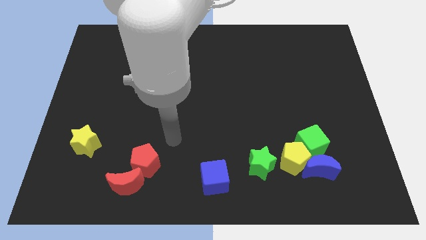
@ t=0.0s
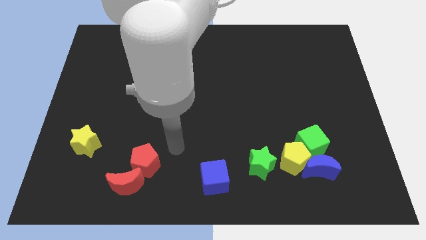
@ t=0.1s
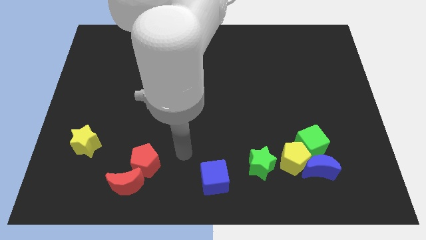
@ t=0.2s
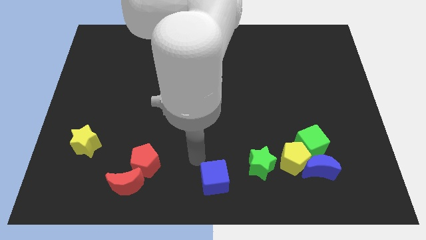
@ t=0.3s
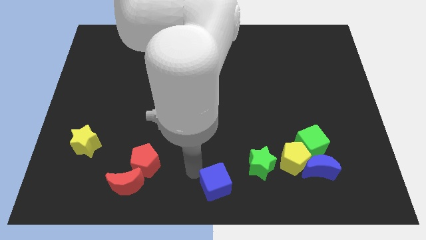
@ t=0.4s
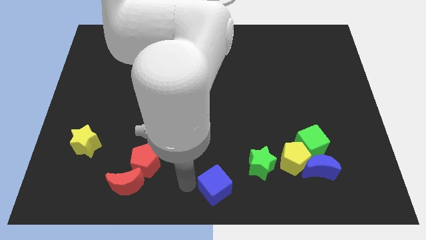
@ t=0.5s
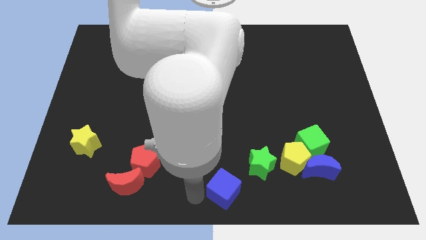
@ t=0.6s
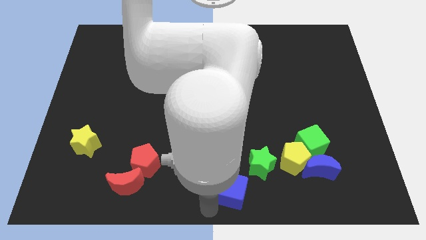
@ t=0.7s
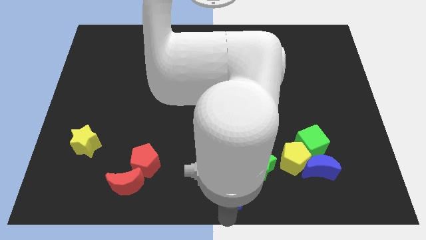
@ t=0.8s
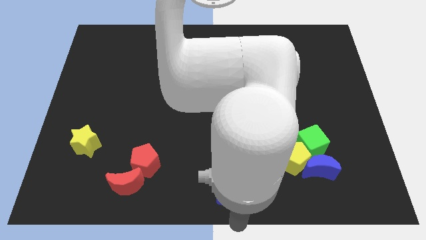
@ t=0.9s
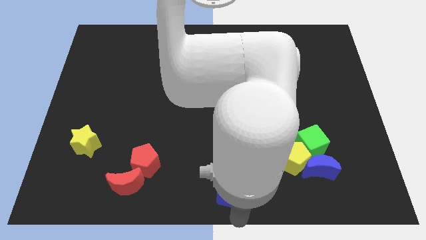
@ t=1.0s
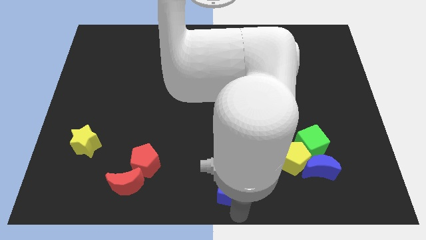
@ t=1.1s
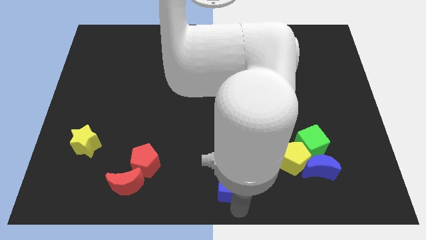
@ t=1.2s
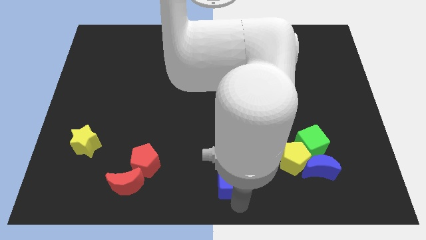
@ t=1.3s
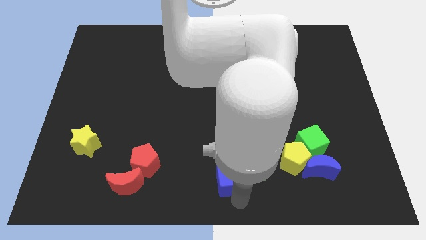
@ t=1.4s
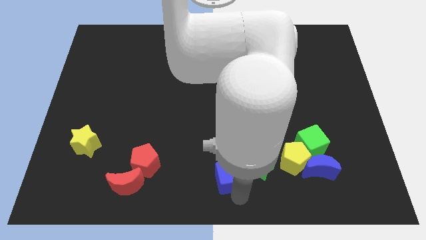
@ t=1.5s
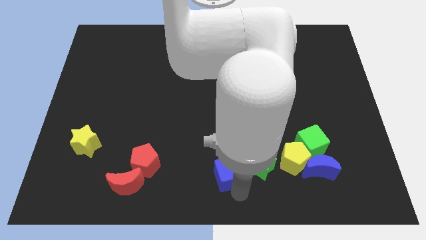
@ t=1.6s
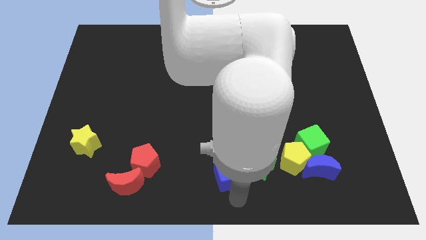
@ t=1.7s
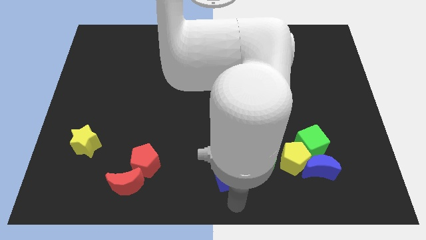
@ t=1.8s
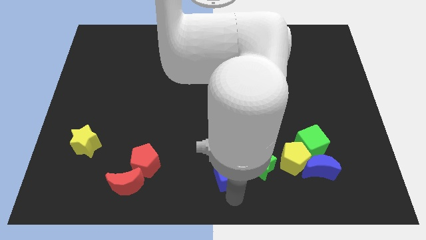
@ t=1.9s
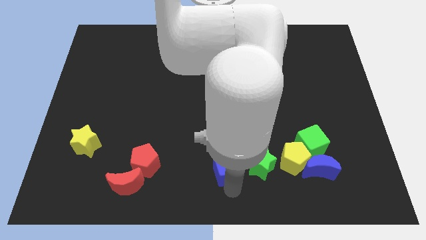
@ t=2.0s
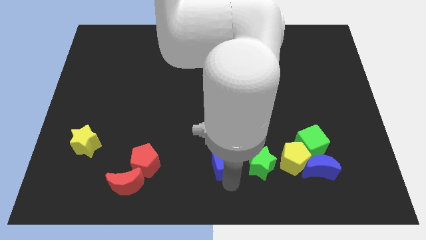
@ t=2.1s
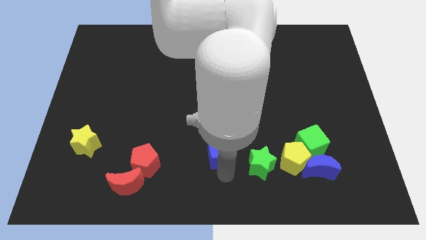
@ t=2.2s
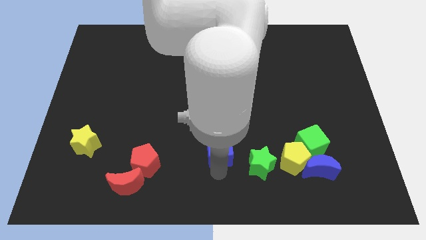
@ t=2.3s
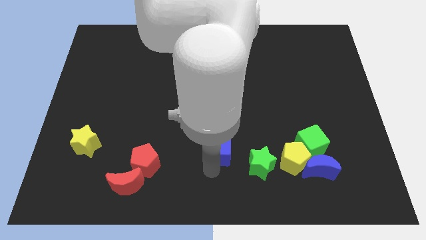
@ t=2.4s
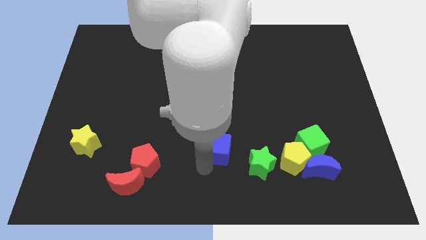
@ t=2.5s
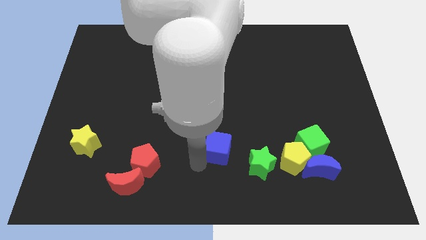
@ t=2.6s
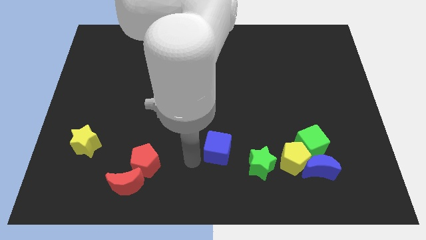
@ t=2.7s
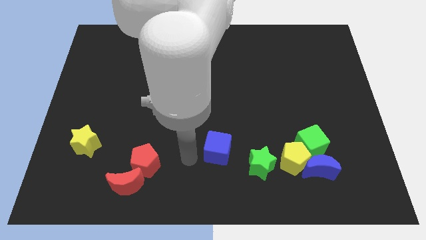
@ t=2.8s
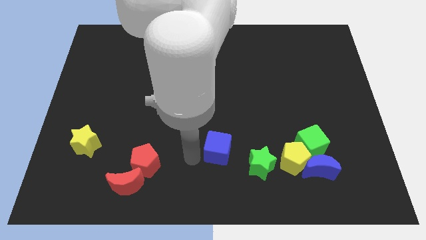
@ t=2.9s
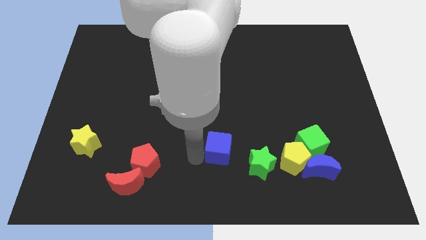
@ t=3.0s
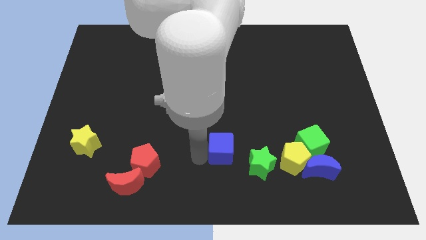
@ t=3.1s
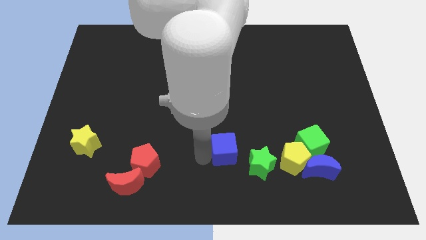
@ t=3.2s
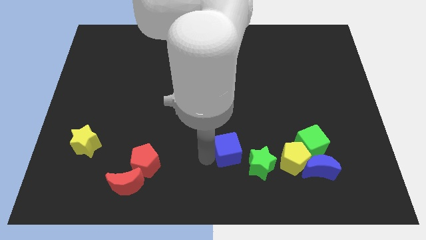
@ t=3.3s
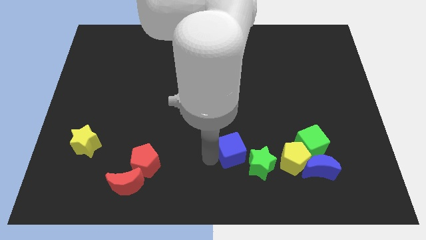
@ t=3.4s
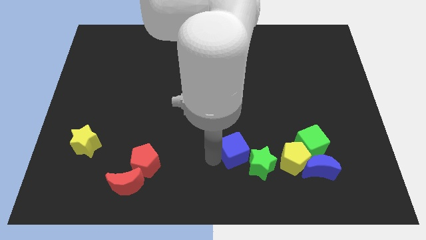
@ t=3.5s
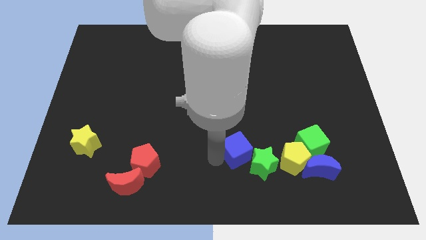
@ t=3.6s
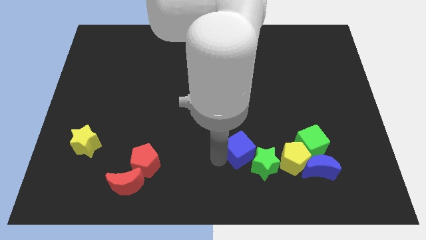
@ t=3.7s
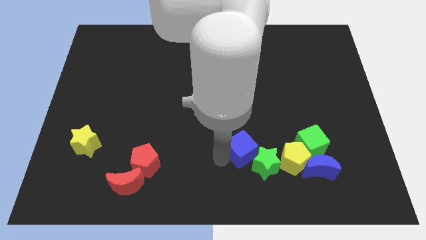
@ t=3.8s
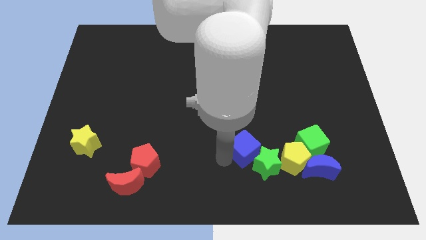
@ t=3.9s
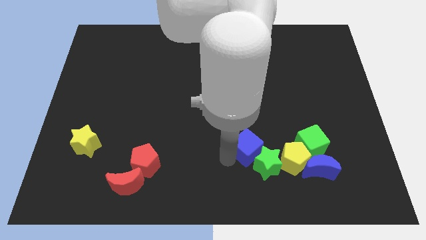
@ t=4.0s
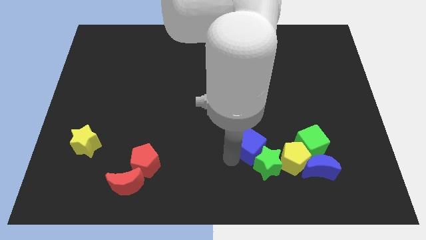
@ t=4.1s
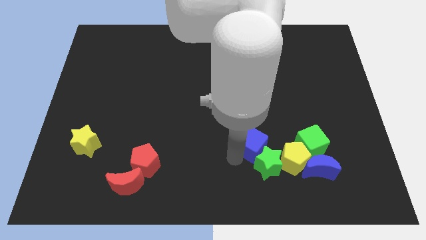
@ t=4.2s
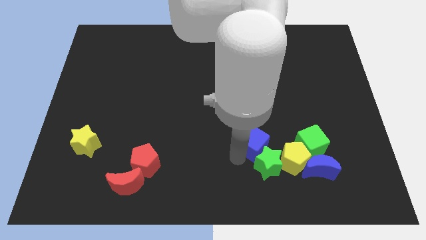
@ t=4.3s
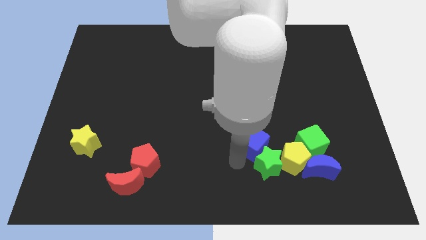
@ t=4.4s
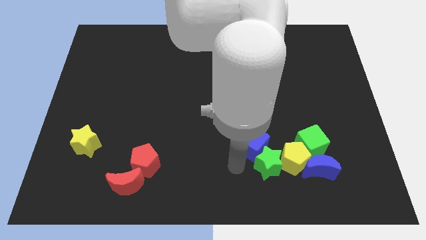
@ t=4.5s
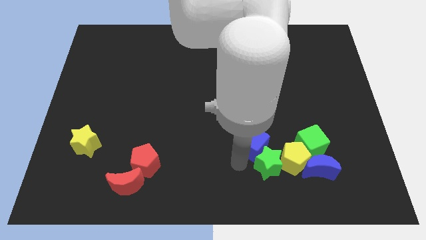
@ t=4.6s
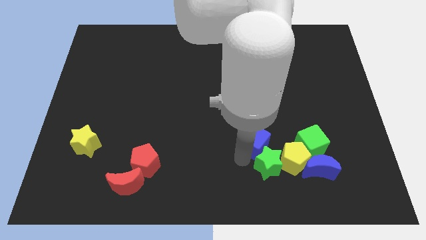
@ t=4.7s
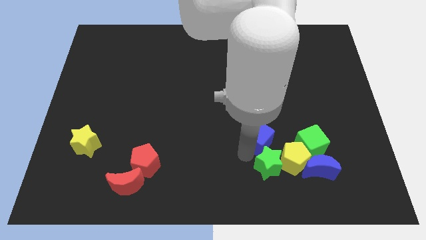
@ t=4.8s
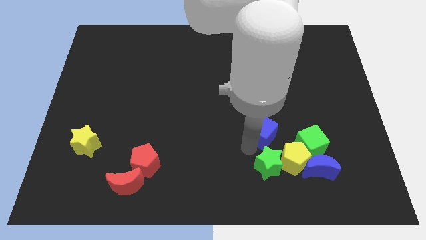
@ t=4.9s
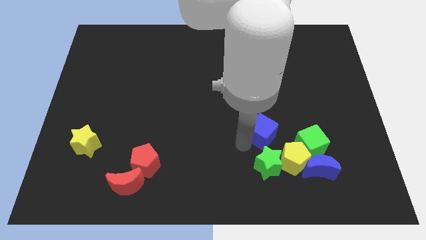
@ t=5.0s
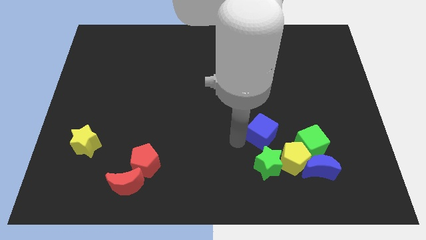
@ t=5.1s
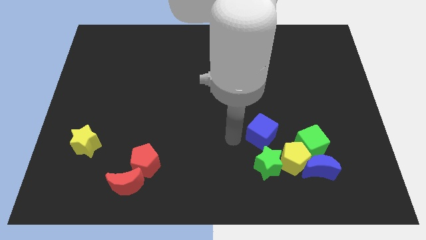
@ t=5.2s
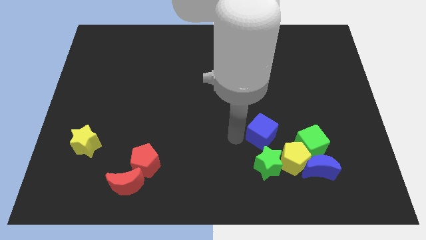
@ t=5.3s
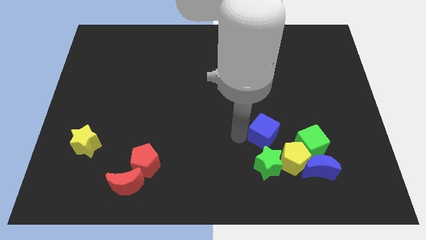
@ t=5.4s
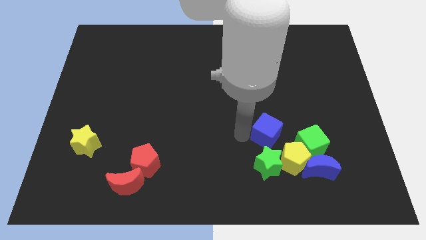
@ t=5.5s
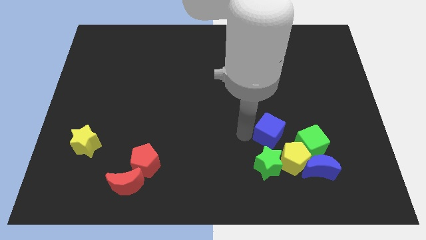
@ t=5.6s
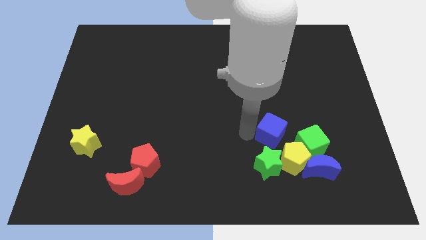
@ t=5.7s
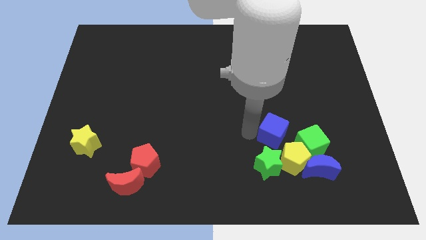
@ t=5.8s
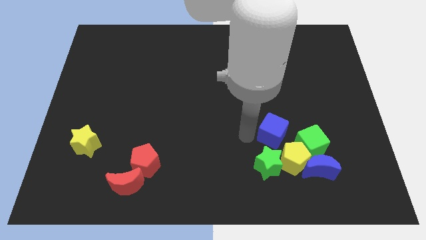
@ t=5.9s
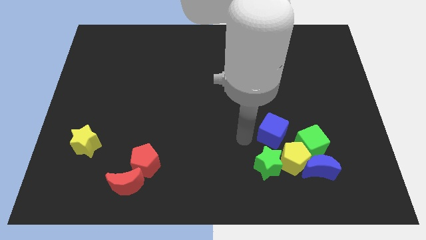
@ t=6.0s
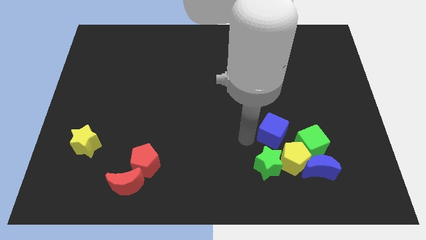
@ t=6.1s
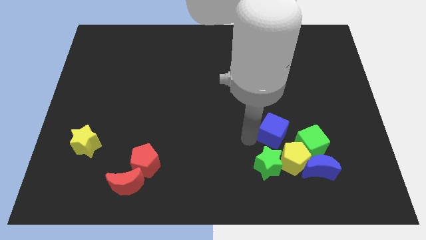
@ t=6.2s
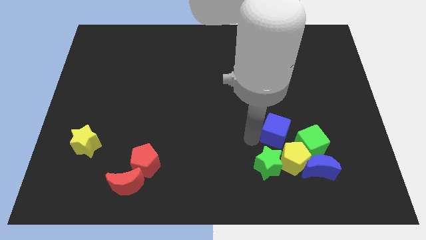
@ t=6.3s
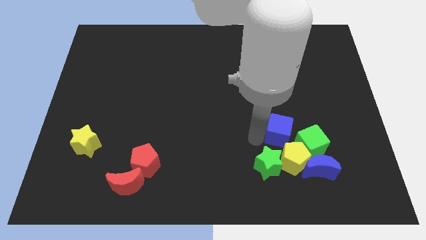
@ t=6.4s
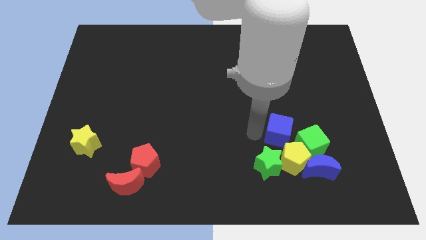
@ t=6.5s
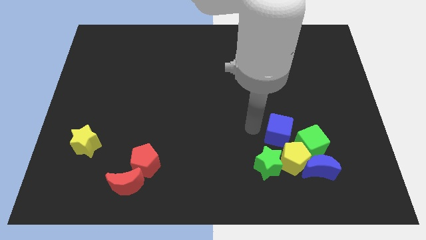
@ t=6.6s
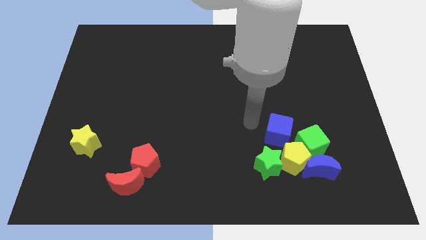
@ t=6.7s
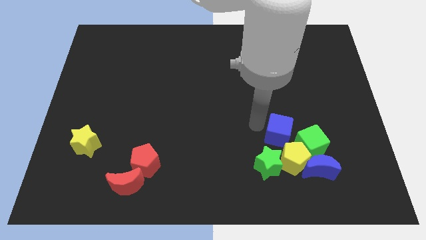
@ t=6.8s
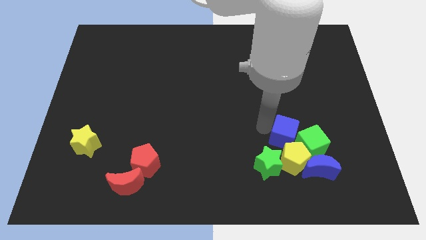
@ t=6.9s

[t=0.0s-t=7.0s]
push the blue cube close to the green cube
